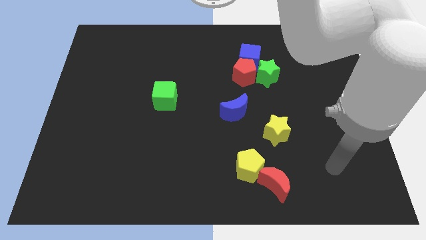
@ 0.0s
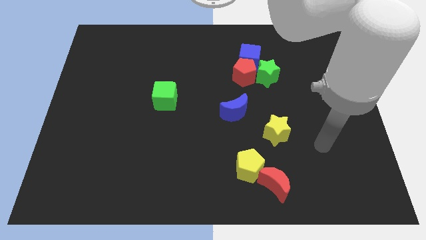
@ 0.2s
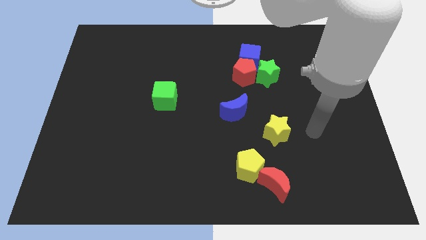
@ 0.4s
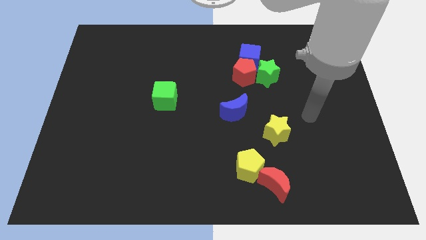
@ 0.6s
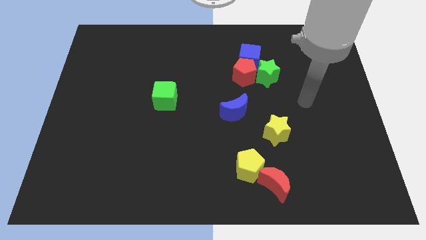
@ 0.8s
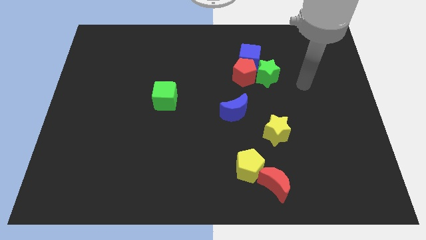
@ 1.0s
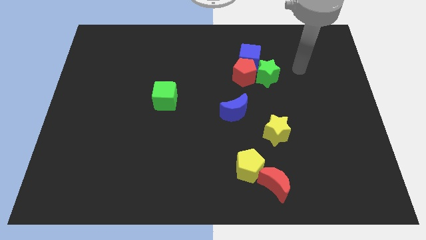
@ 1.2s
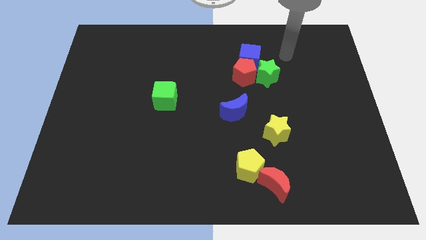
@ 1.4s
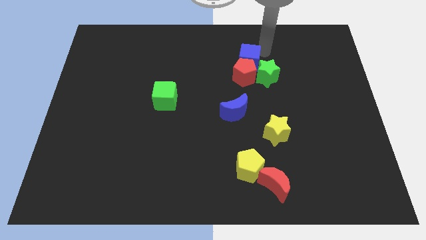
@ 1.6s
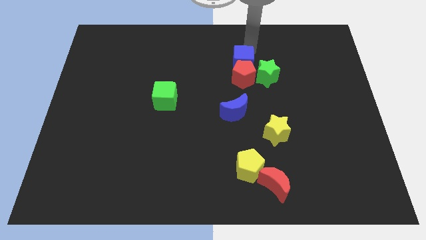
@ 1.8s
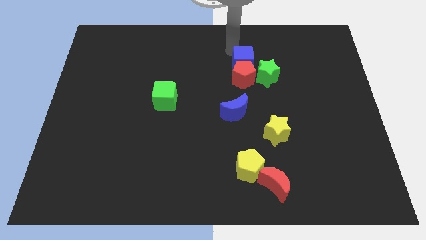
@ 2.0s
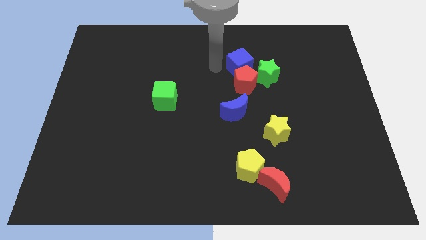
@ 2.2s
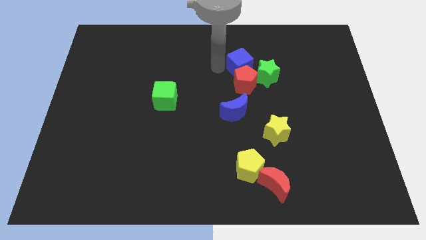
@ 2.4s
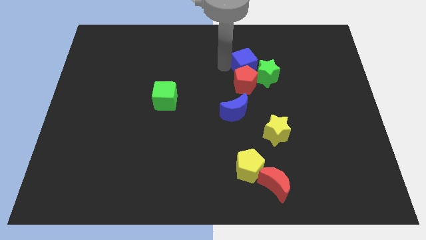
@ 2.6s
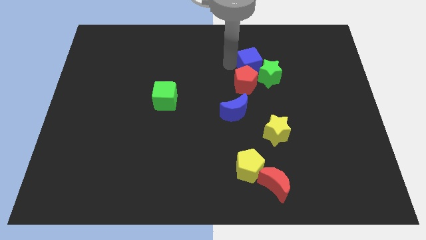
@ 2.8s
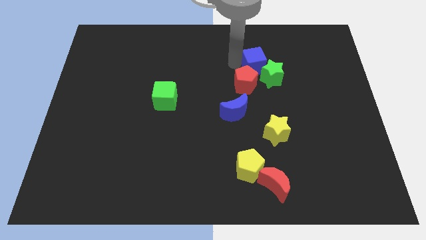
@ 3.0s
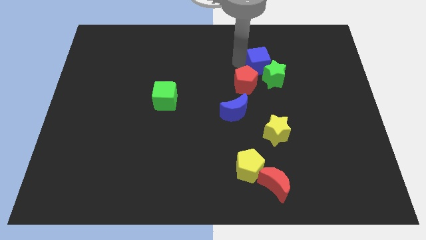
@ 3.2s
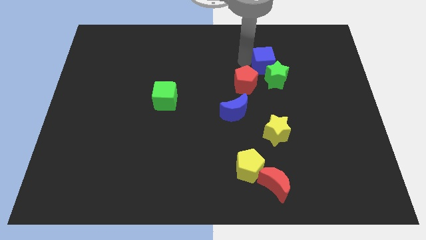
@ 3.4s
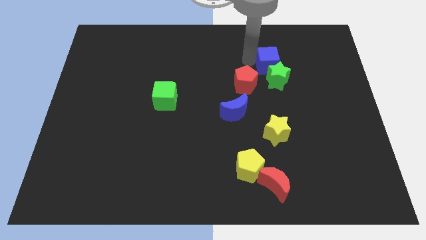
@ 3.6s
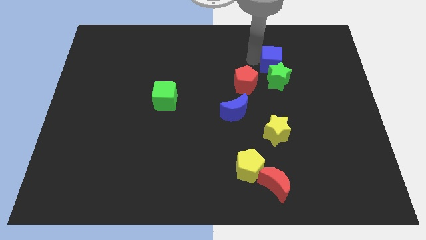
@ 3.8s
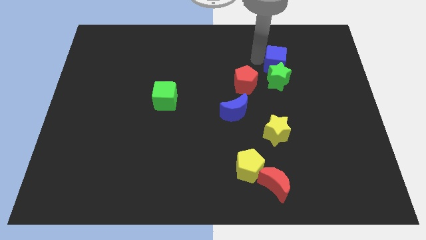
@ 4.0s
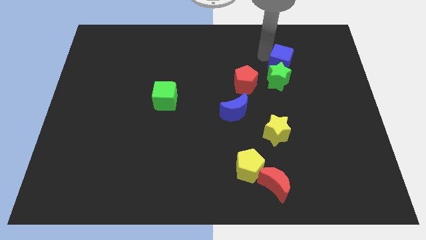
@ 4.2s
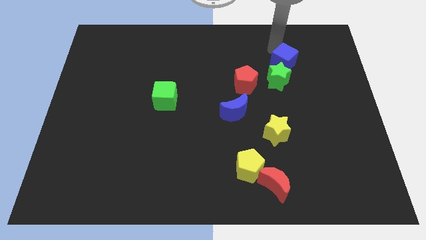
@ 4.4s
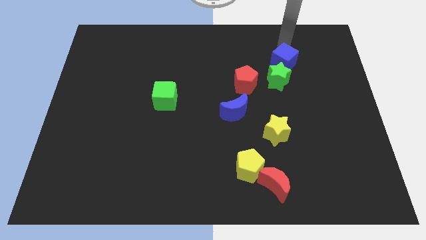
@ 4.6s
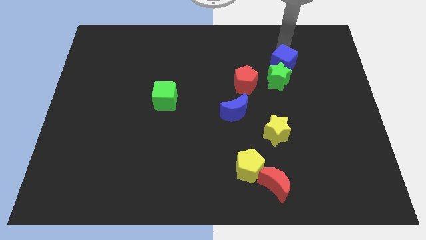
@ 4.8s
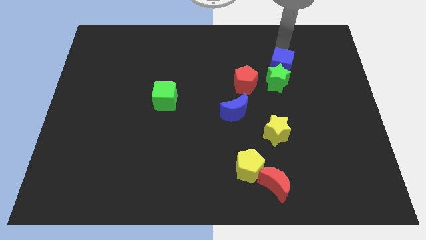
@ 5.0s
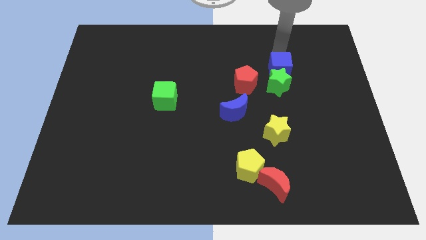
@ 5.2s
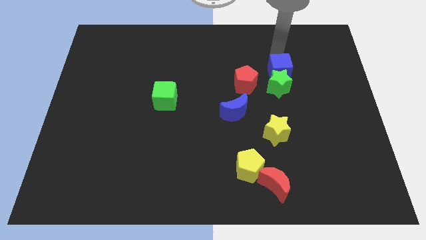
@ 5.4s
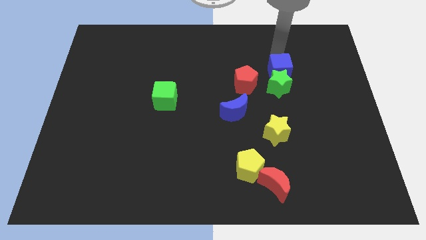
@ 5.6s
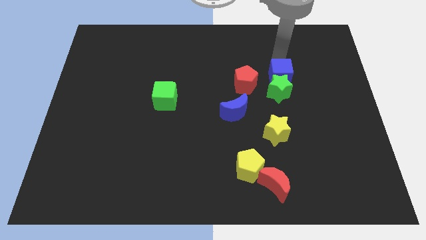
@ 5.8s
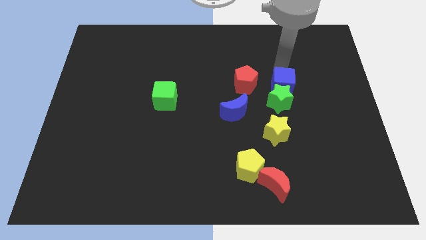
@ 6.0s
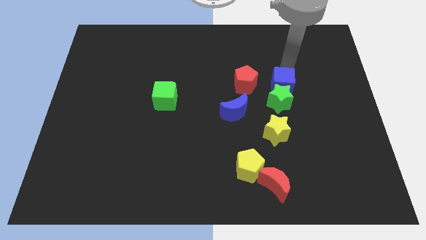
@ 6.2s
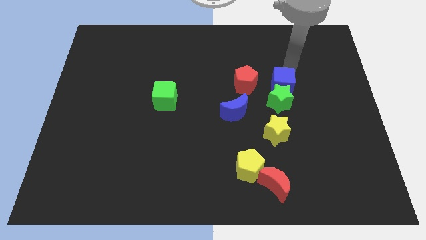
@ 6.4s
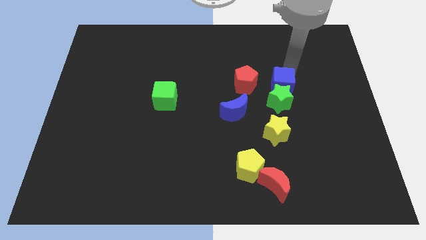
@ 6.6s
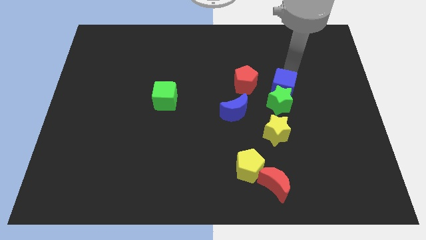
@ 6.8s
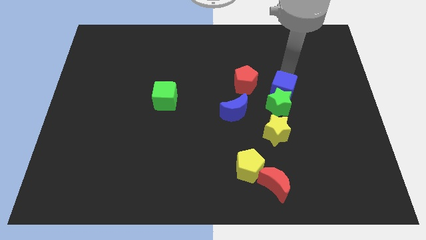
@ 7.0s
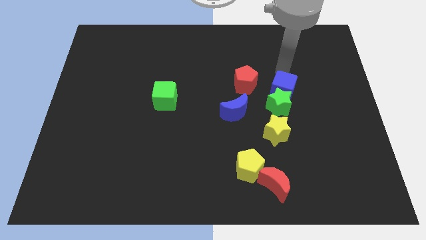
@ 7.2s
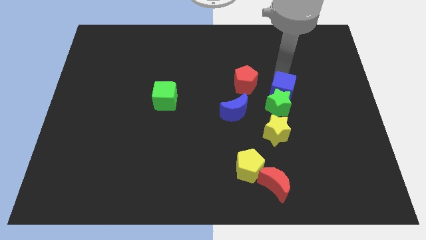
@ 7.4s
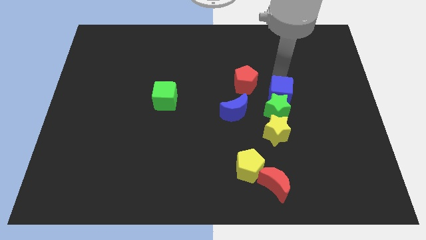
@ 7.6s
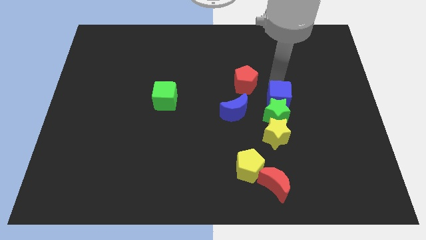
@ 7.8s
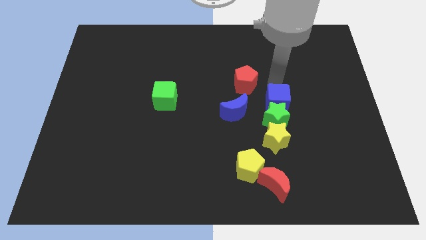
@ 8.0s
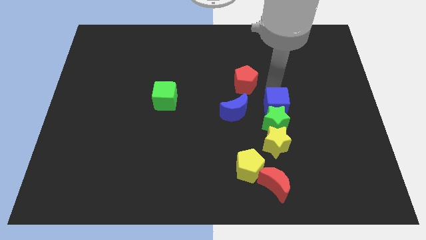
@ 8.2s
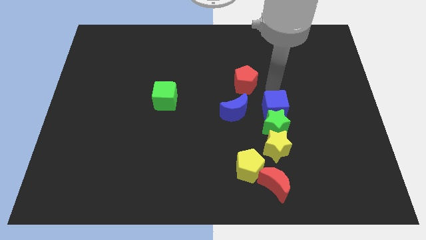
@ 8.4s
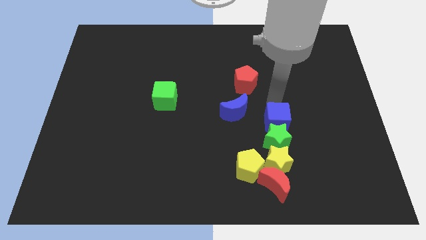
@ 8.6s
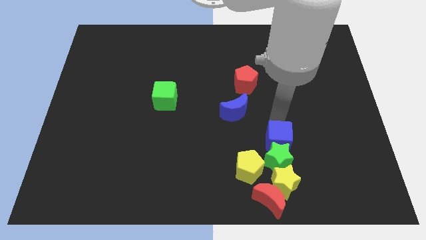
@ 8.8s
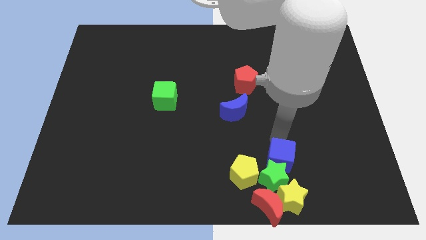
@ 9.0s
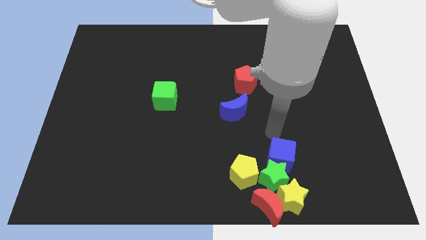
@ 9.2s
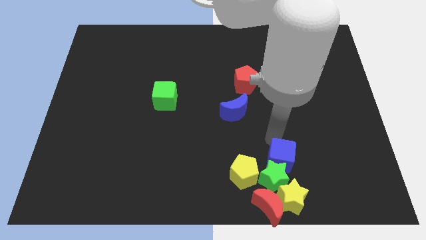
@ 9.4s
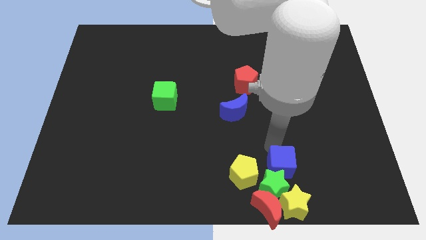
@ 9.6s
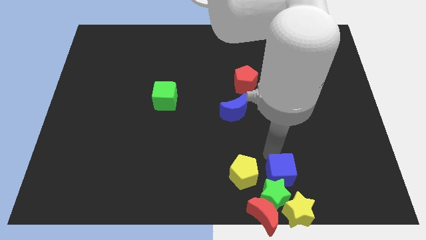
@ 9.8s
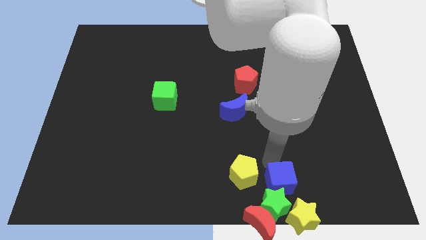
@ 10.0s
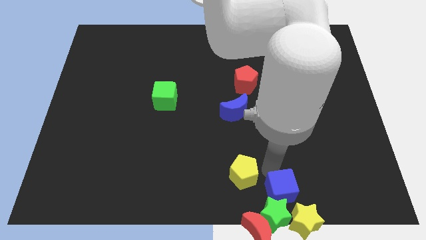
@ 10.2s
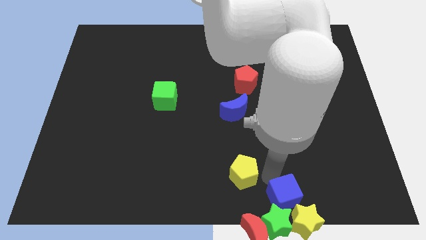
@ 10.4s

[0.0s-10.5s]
slide the blue cube to the yellow star

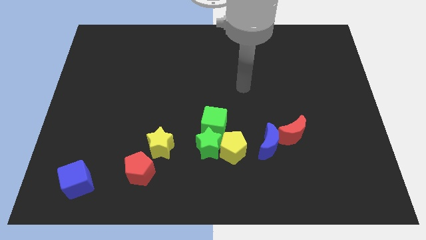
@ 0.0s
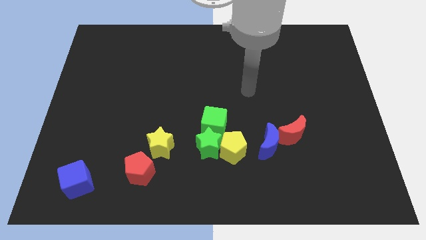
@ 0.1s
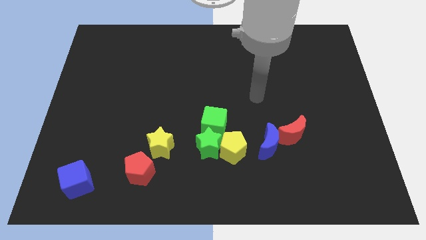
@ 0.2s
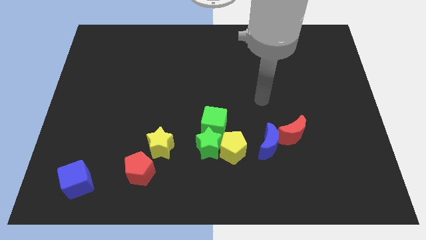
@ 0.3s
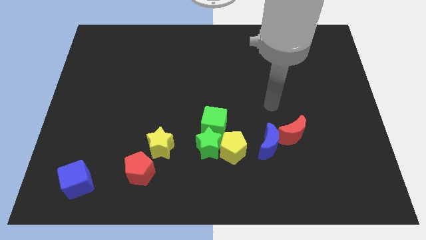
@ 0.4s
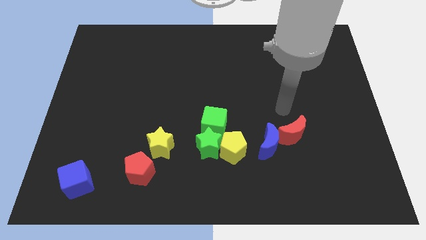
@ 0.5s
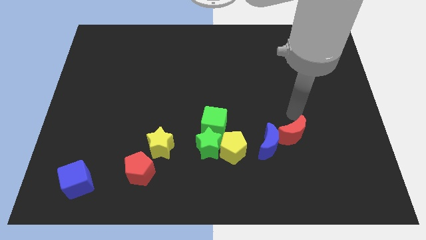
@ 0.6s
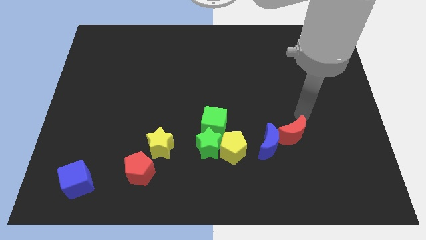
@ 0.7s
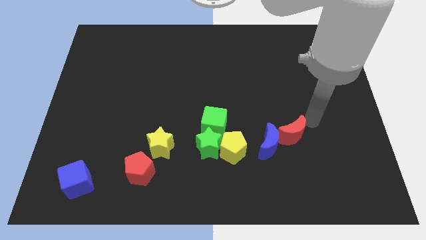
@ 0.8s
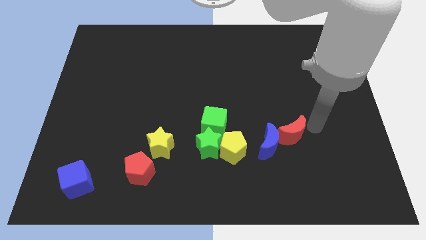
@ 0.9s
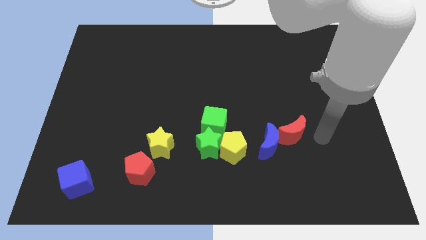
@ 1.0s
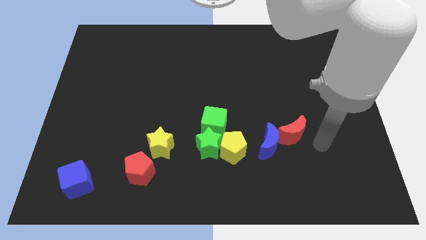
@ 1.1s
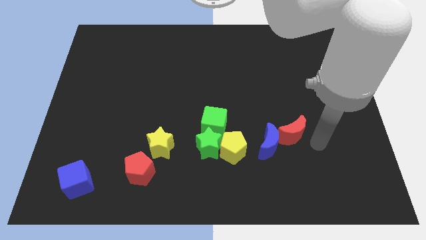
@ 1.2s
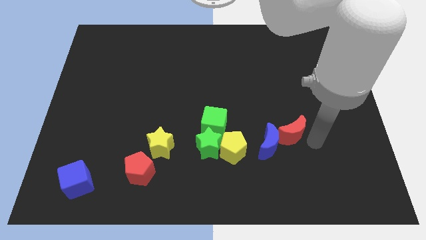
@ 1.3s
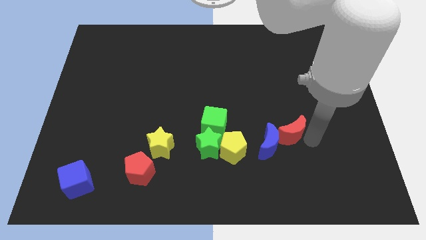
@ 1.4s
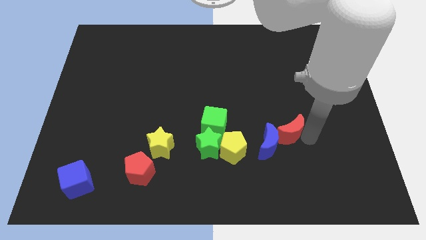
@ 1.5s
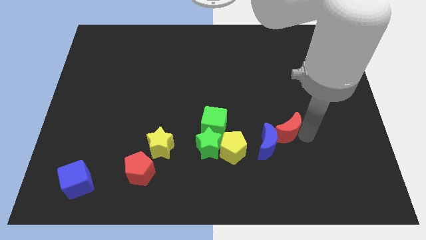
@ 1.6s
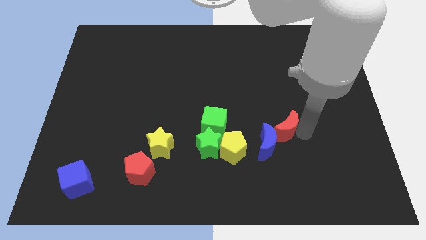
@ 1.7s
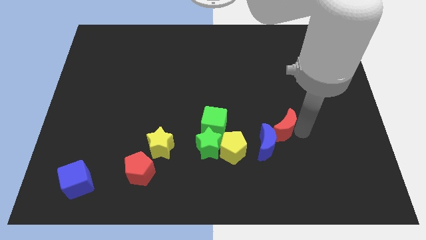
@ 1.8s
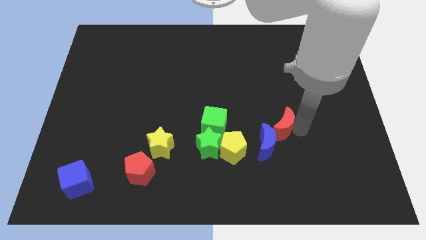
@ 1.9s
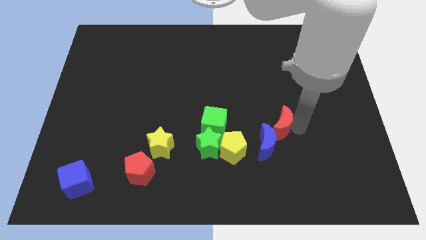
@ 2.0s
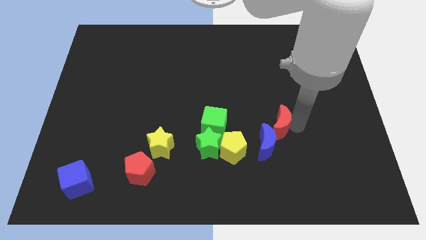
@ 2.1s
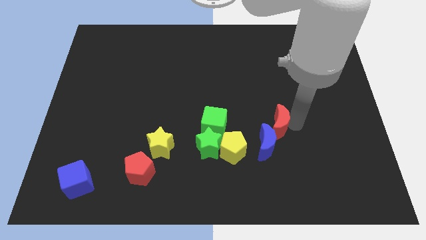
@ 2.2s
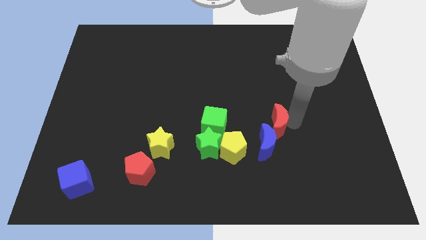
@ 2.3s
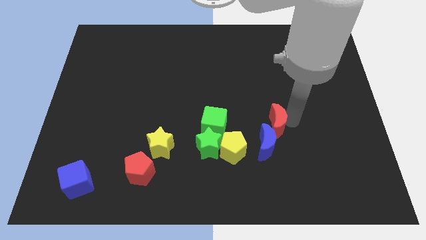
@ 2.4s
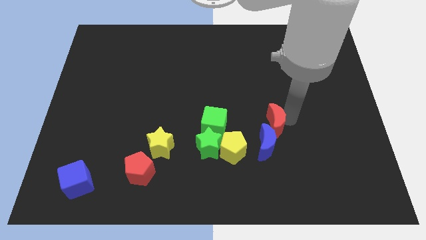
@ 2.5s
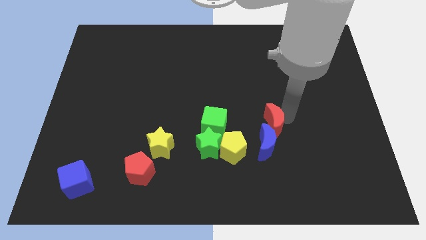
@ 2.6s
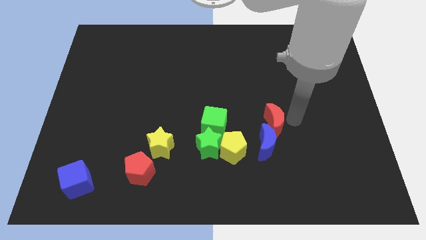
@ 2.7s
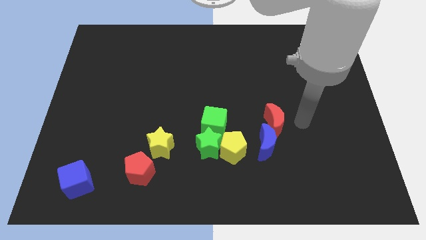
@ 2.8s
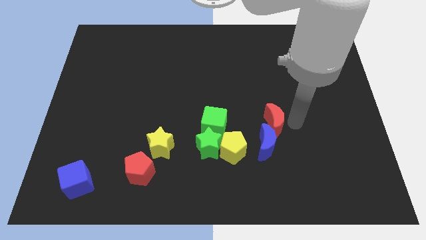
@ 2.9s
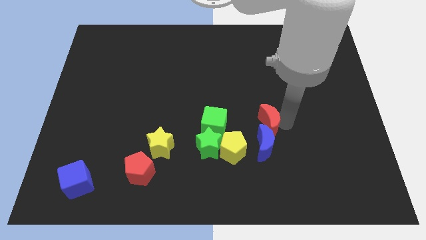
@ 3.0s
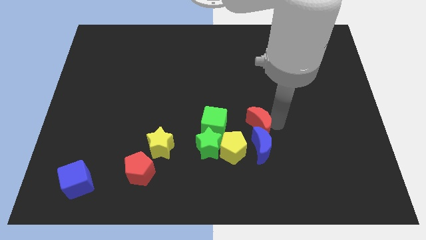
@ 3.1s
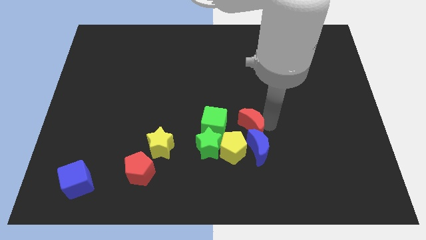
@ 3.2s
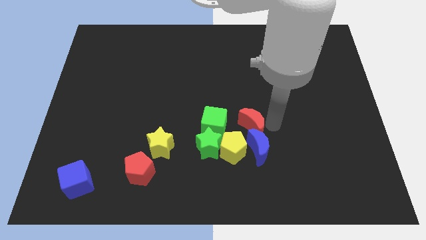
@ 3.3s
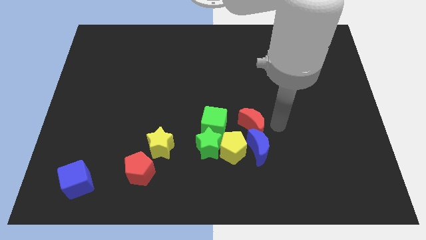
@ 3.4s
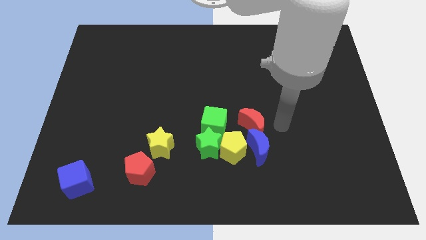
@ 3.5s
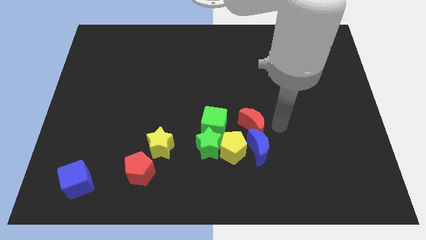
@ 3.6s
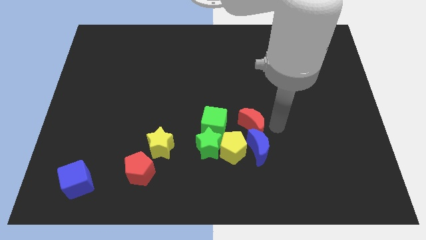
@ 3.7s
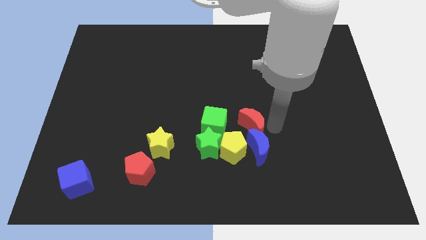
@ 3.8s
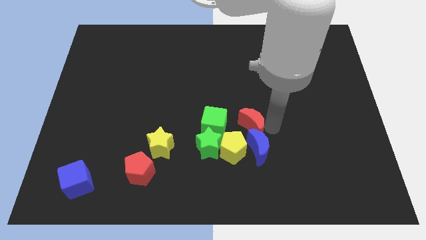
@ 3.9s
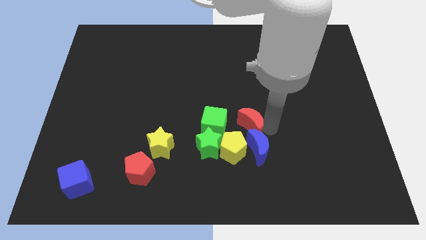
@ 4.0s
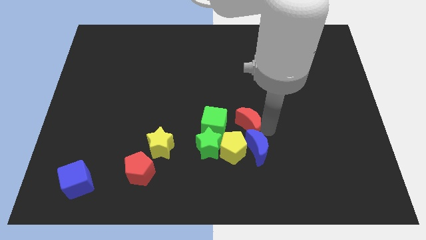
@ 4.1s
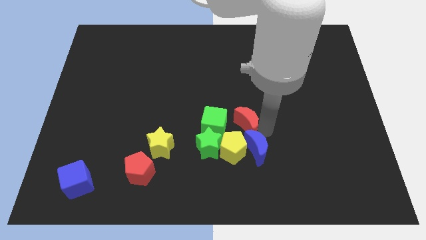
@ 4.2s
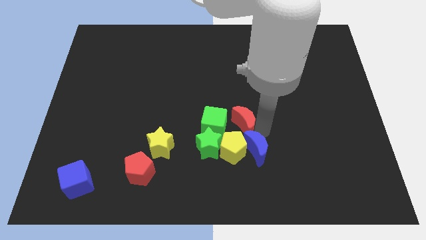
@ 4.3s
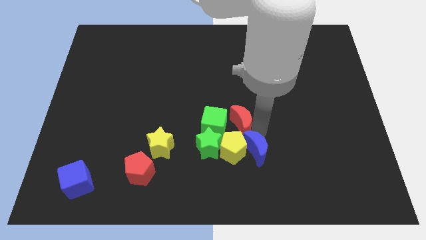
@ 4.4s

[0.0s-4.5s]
move the red moon towards the green cube
